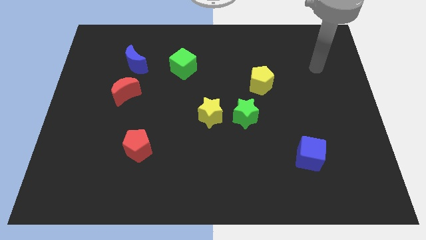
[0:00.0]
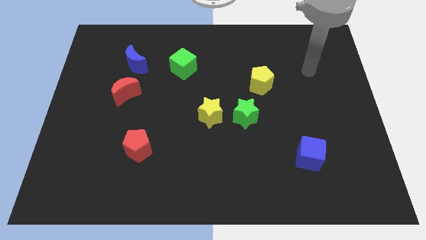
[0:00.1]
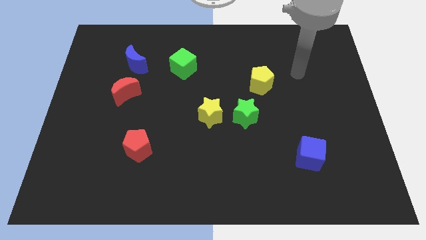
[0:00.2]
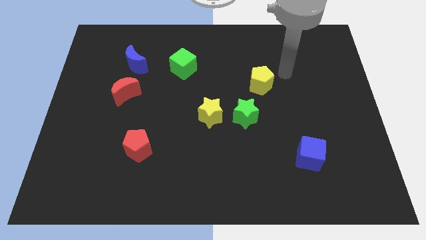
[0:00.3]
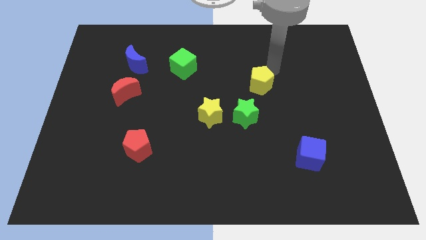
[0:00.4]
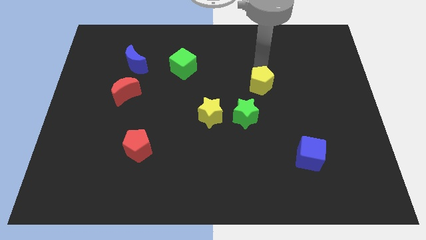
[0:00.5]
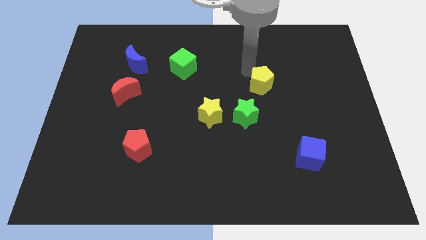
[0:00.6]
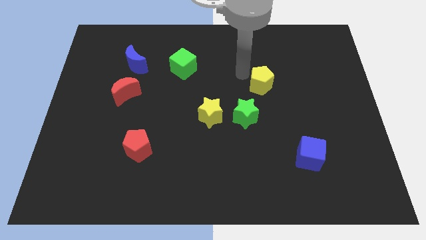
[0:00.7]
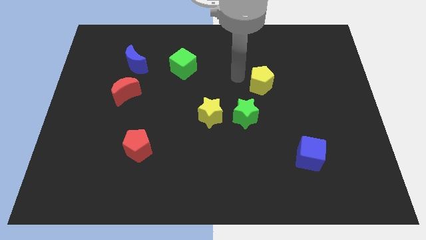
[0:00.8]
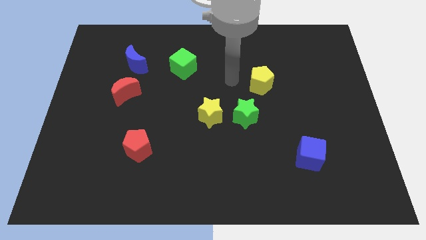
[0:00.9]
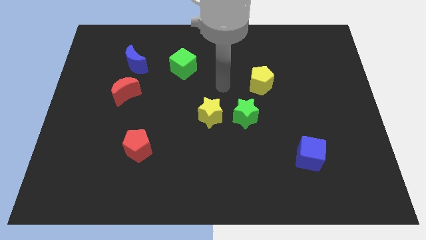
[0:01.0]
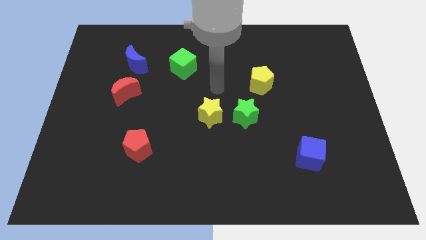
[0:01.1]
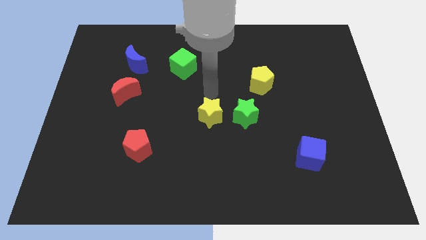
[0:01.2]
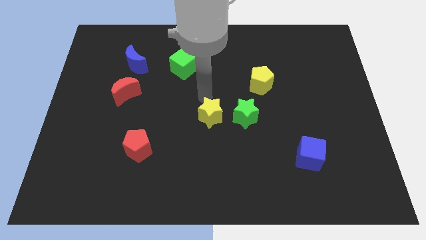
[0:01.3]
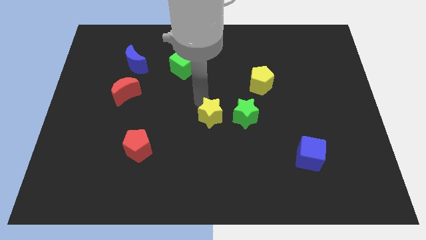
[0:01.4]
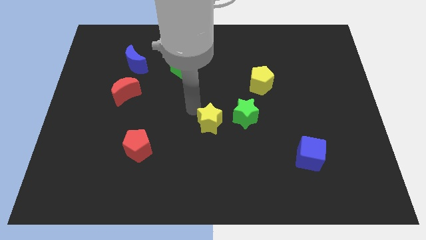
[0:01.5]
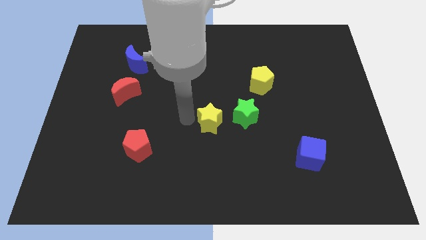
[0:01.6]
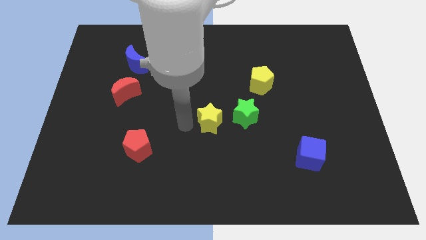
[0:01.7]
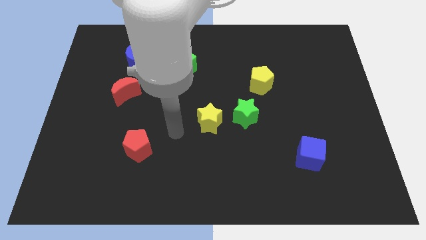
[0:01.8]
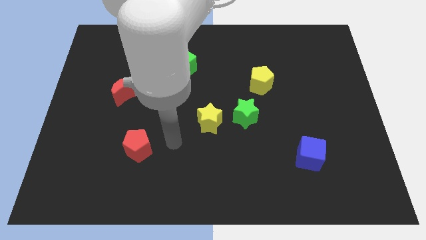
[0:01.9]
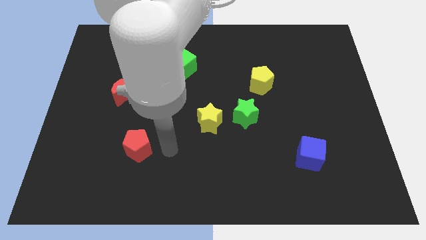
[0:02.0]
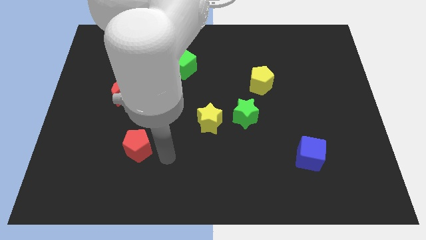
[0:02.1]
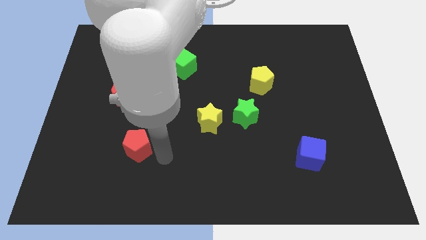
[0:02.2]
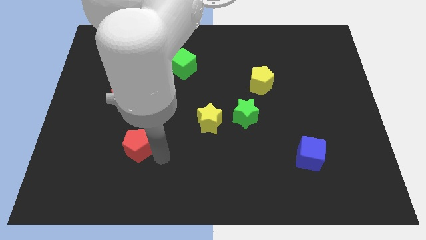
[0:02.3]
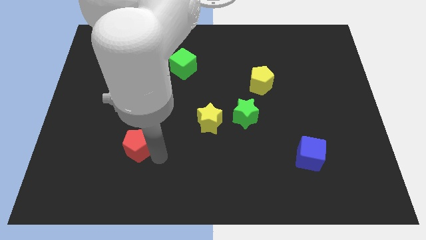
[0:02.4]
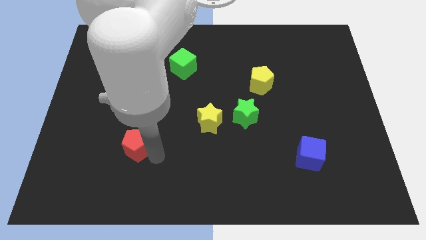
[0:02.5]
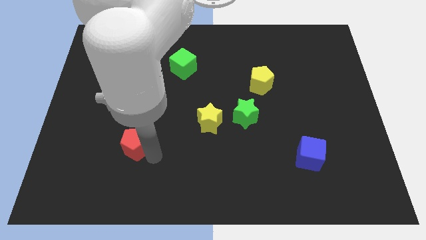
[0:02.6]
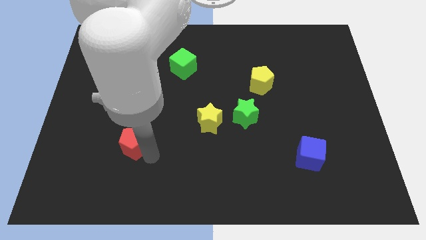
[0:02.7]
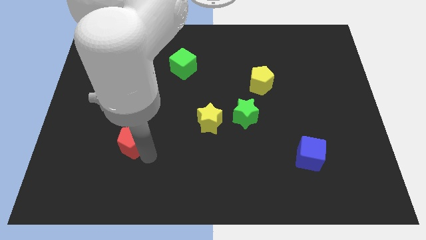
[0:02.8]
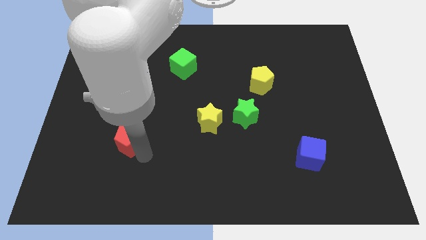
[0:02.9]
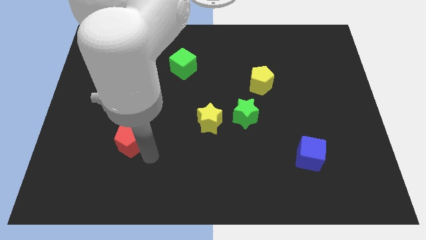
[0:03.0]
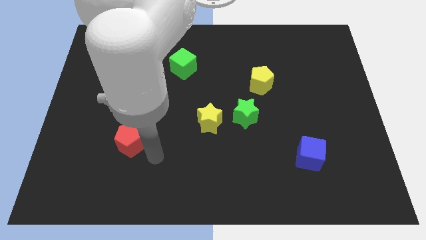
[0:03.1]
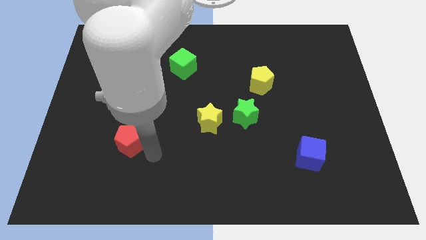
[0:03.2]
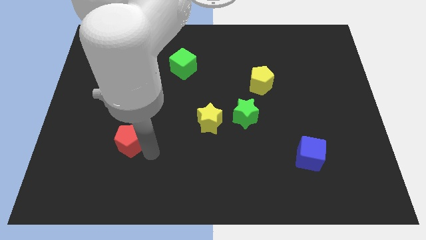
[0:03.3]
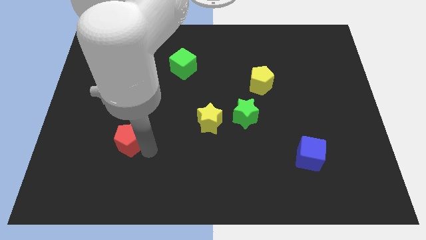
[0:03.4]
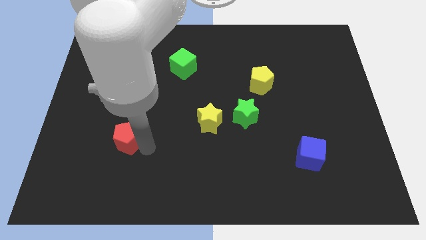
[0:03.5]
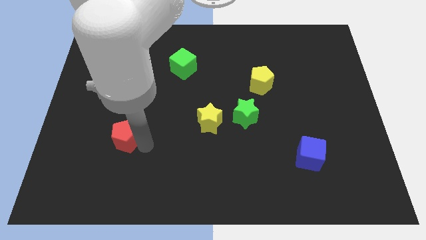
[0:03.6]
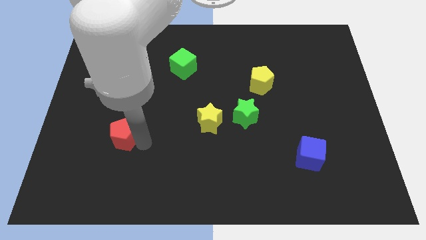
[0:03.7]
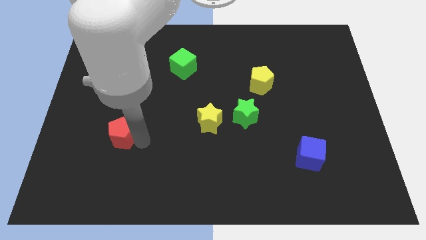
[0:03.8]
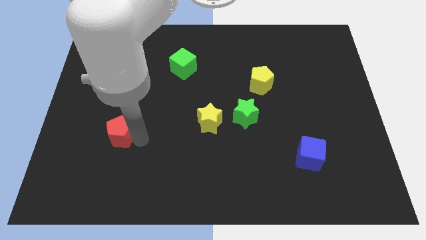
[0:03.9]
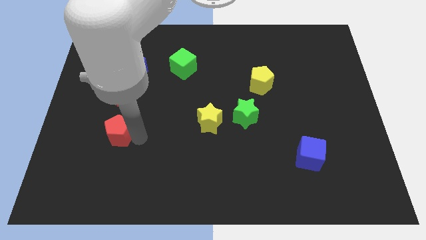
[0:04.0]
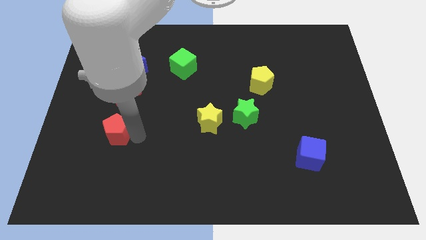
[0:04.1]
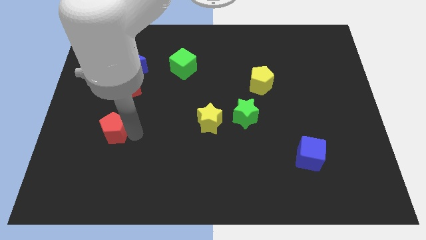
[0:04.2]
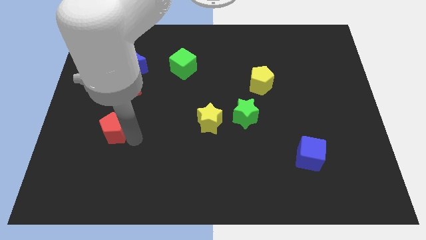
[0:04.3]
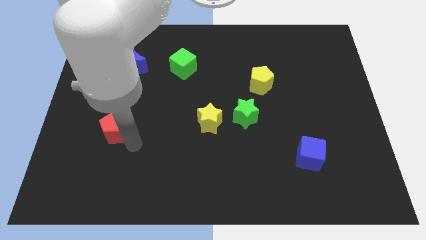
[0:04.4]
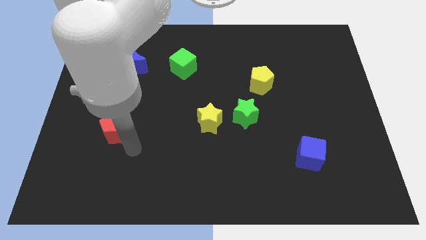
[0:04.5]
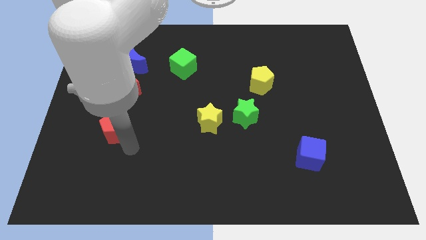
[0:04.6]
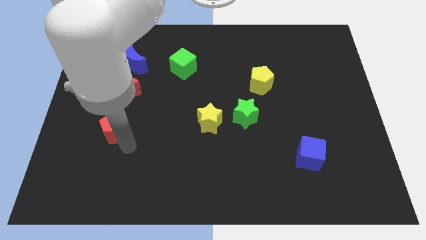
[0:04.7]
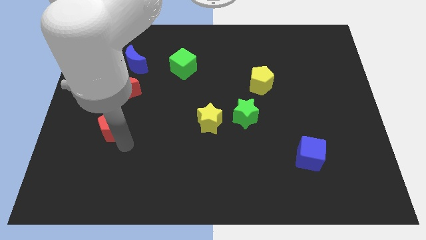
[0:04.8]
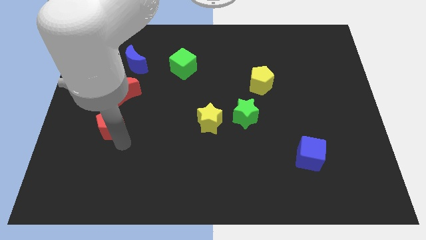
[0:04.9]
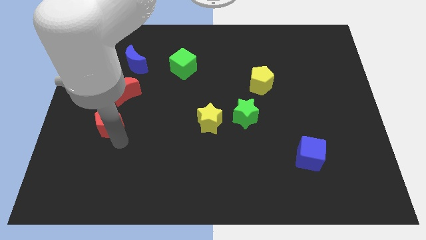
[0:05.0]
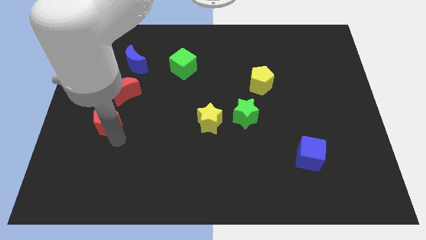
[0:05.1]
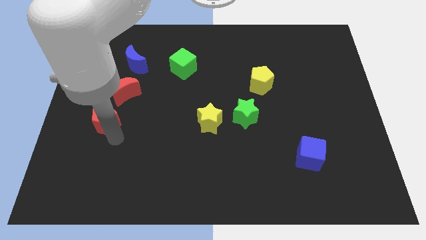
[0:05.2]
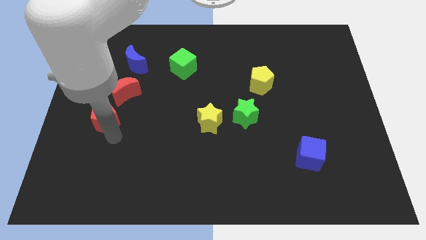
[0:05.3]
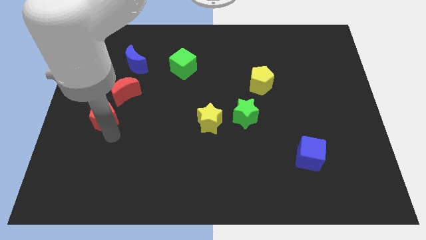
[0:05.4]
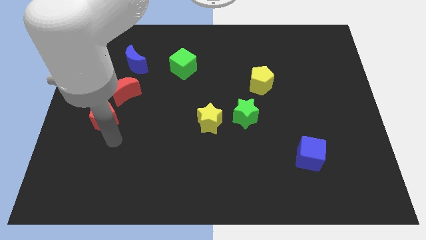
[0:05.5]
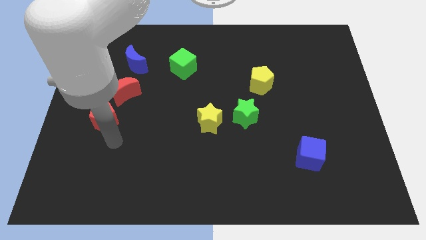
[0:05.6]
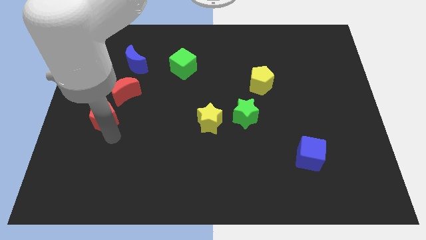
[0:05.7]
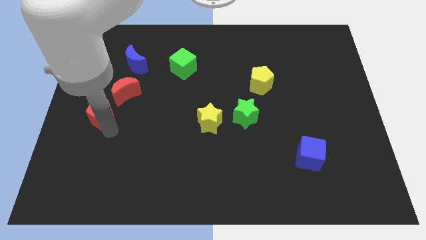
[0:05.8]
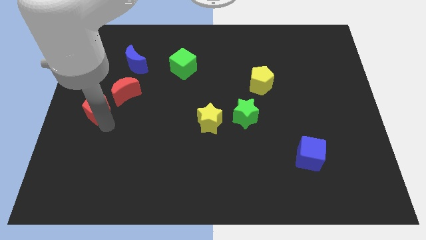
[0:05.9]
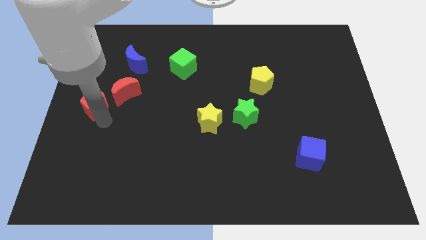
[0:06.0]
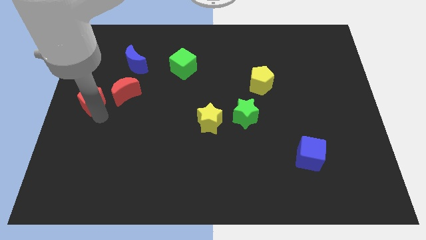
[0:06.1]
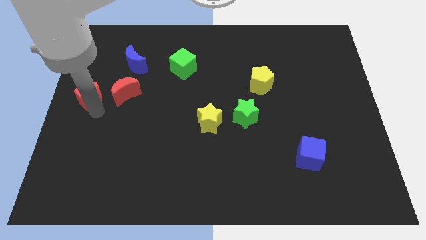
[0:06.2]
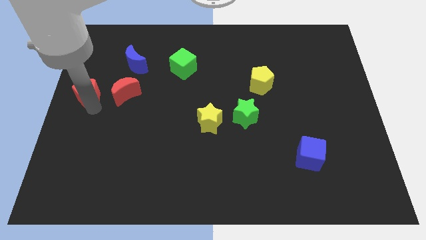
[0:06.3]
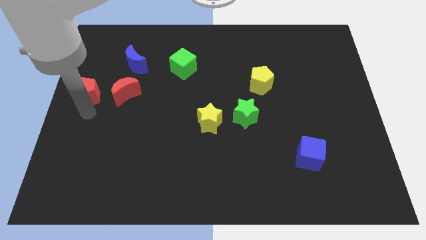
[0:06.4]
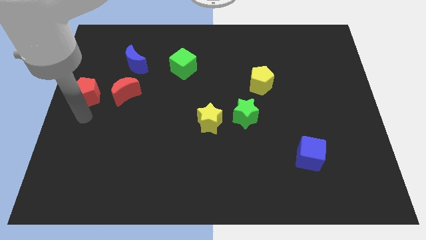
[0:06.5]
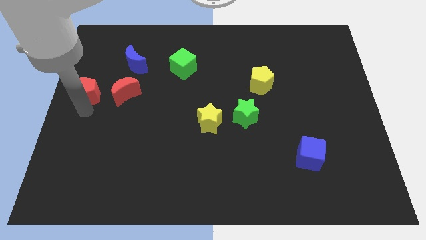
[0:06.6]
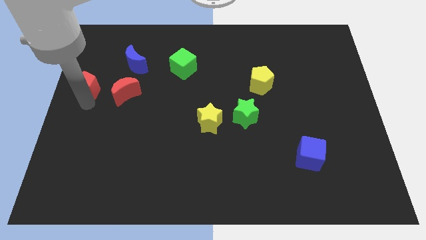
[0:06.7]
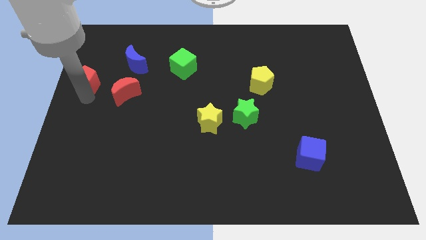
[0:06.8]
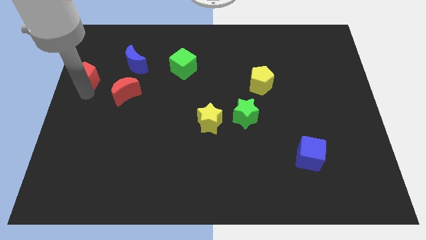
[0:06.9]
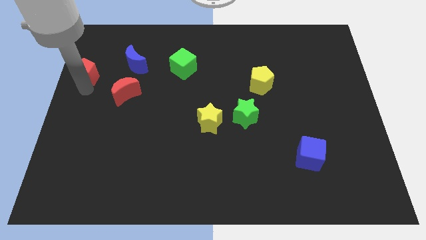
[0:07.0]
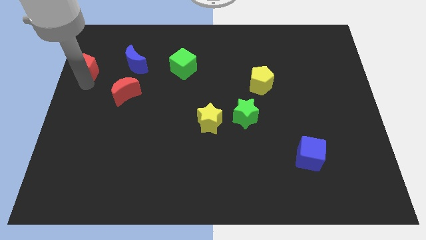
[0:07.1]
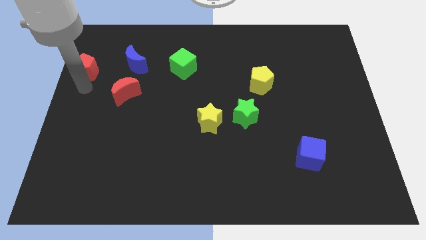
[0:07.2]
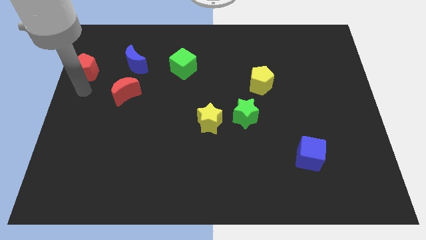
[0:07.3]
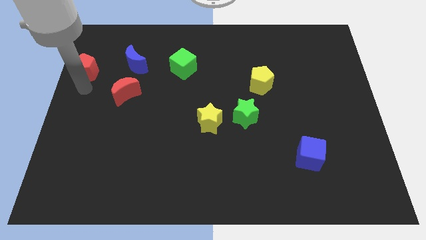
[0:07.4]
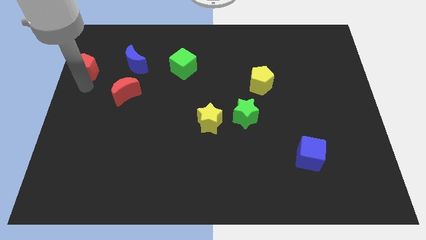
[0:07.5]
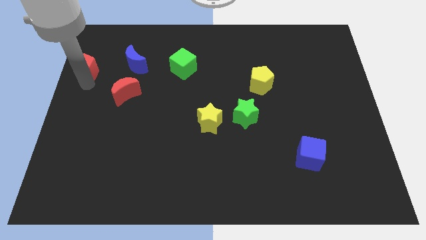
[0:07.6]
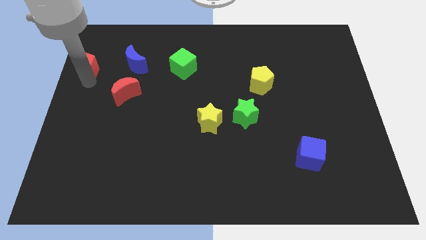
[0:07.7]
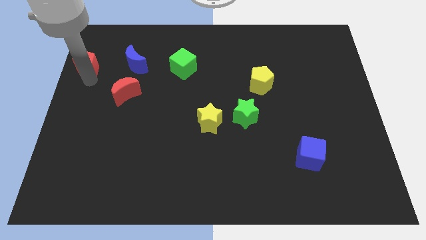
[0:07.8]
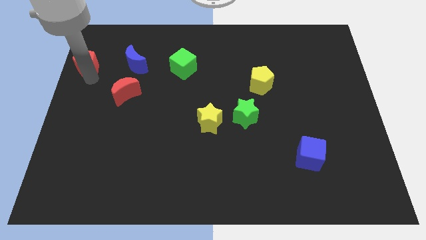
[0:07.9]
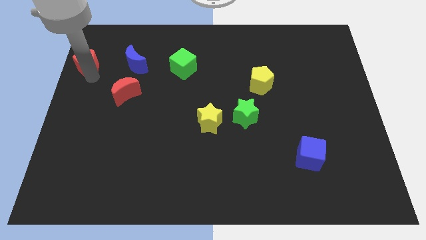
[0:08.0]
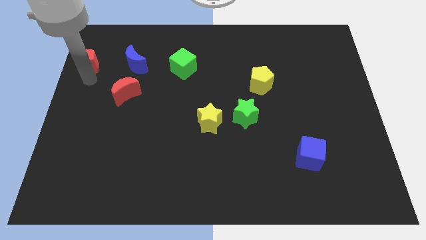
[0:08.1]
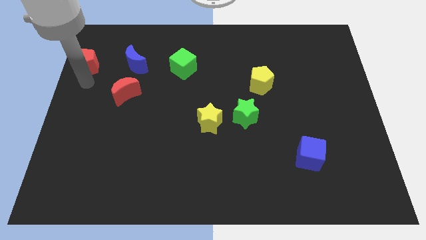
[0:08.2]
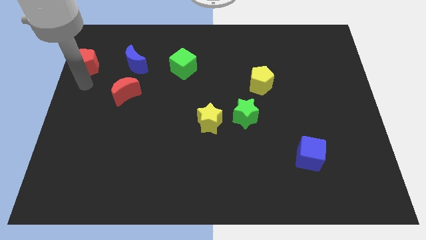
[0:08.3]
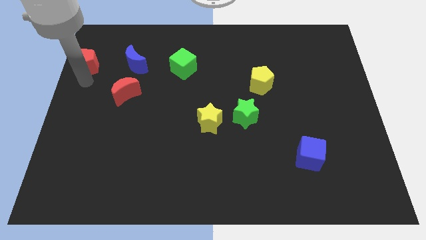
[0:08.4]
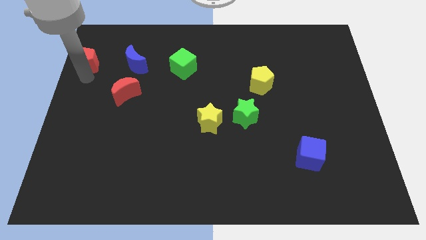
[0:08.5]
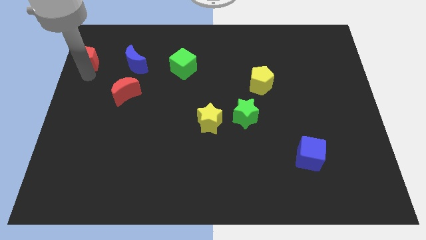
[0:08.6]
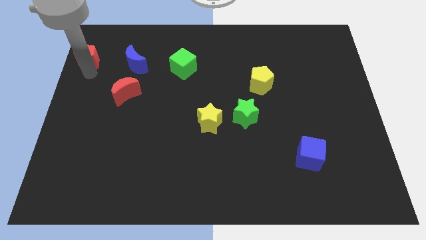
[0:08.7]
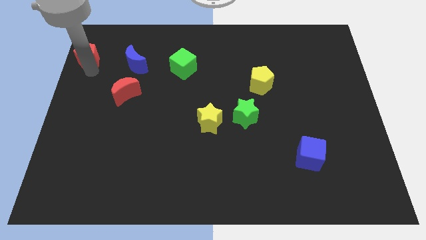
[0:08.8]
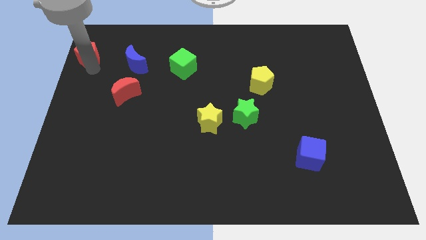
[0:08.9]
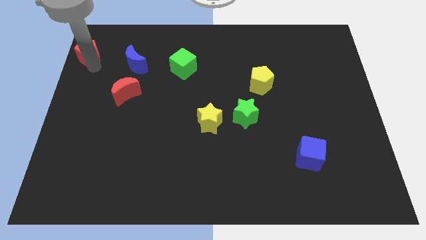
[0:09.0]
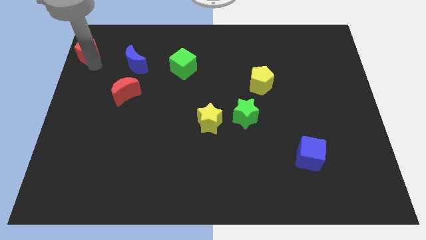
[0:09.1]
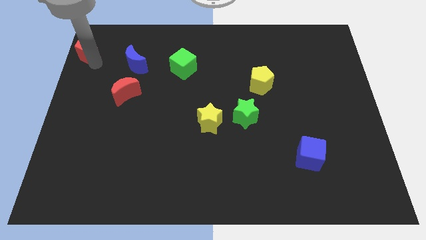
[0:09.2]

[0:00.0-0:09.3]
slide the red pentagon to the top left
